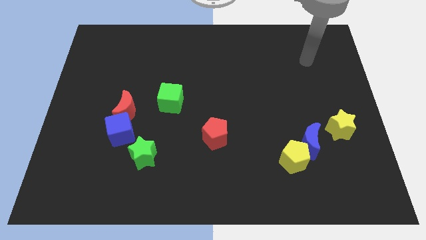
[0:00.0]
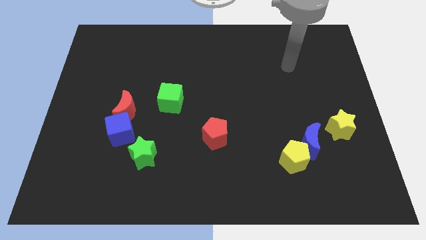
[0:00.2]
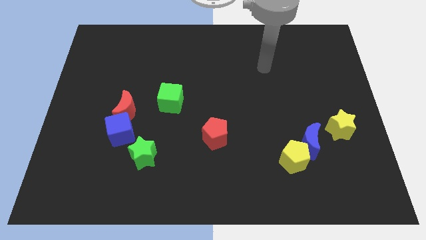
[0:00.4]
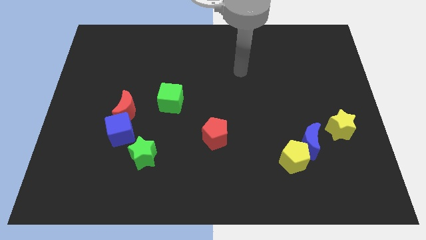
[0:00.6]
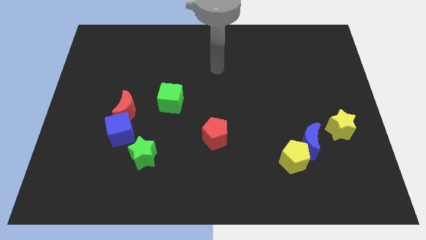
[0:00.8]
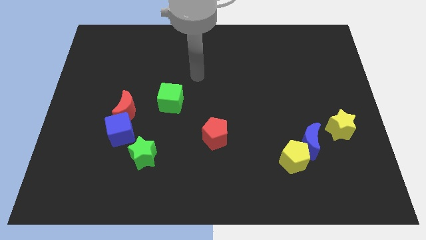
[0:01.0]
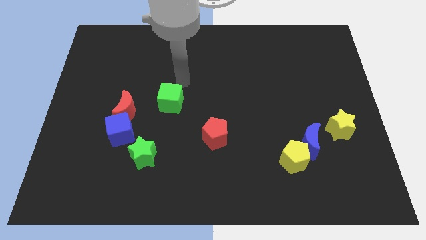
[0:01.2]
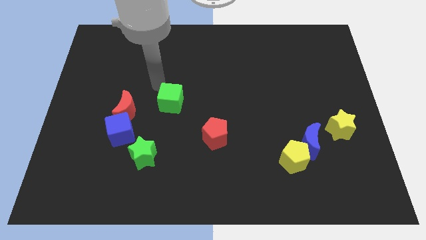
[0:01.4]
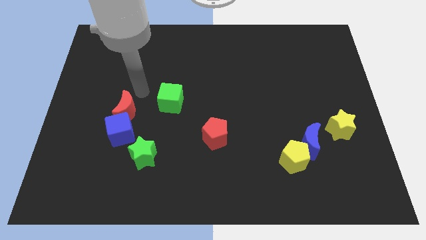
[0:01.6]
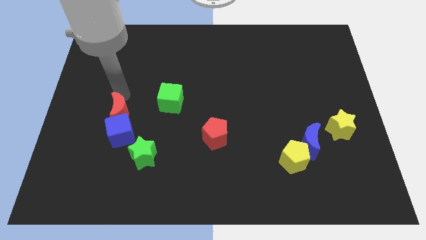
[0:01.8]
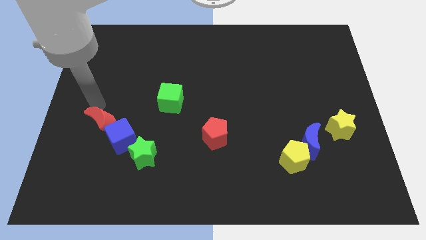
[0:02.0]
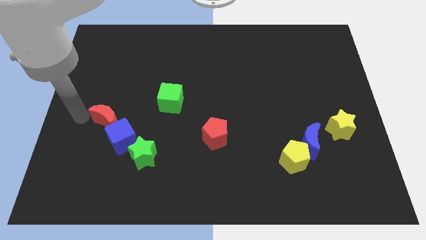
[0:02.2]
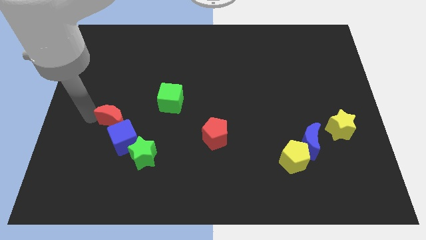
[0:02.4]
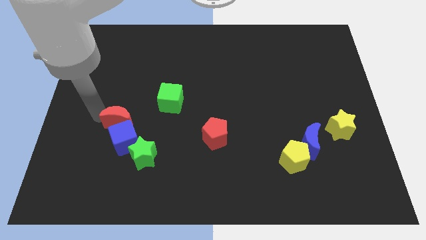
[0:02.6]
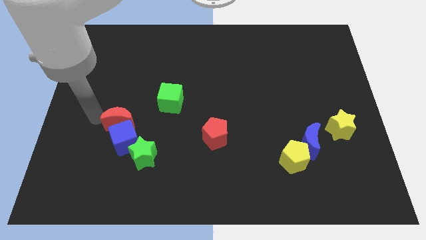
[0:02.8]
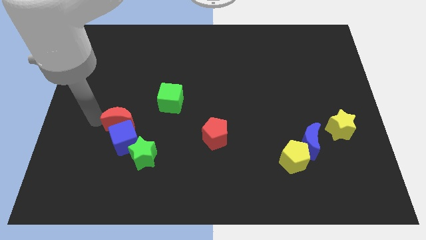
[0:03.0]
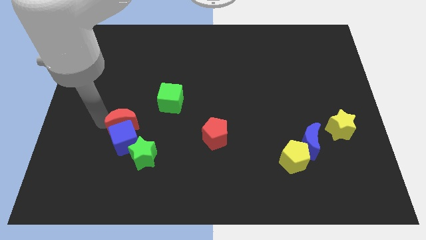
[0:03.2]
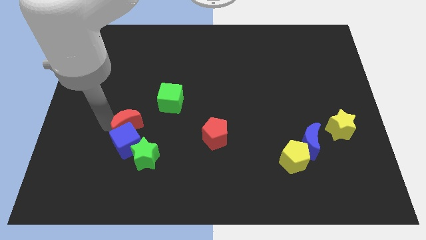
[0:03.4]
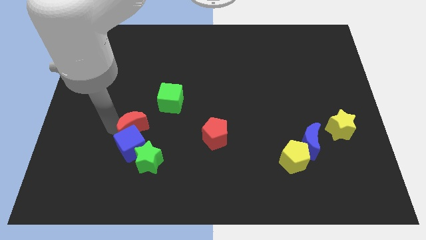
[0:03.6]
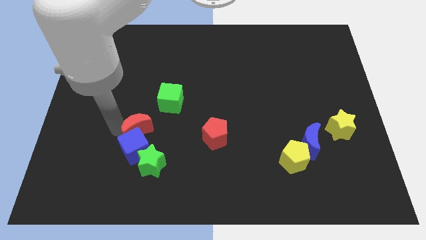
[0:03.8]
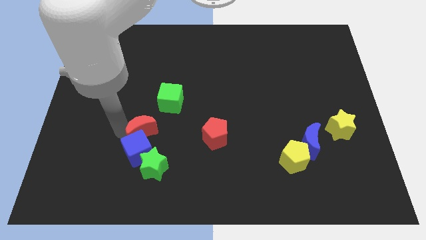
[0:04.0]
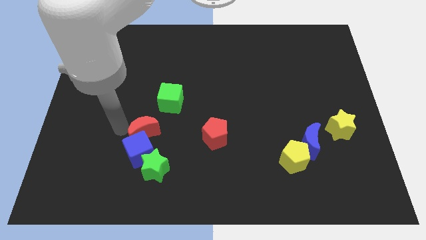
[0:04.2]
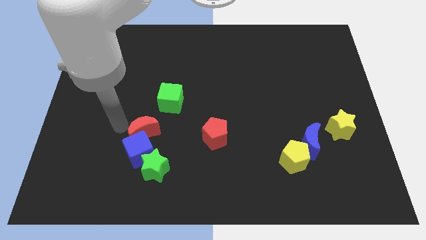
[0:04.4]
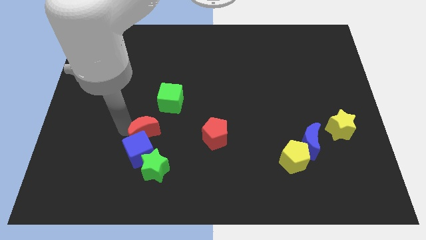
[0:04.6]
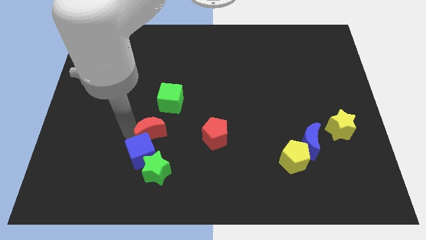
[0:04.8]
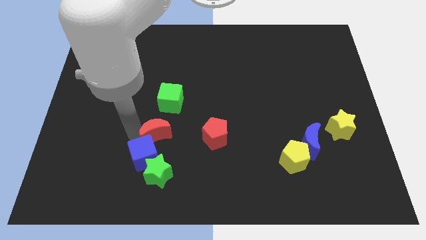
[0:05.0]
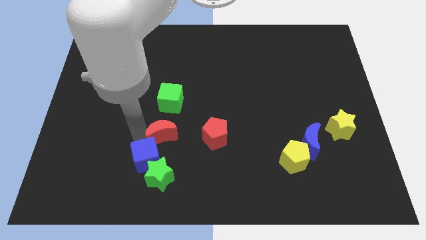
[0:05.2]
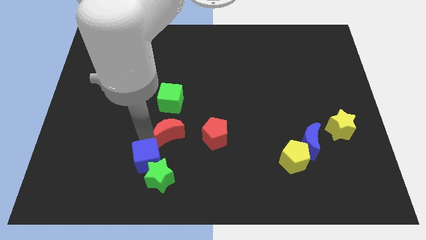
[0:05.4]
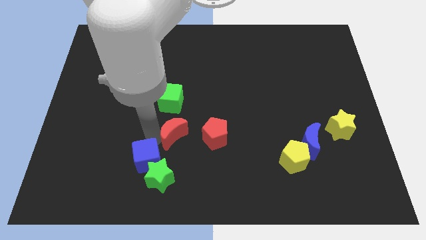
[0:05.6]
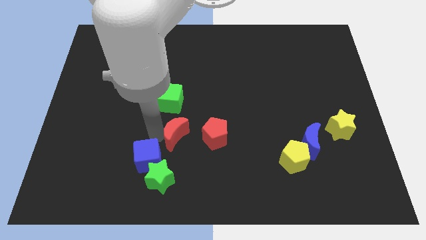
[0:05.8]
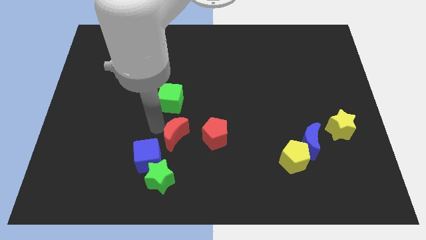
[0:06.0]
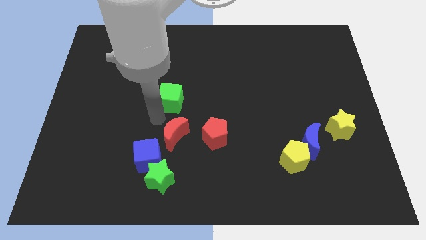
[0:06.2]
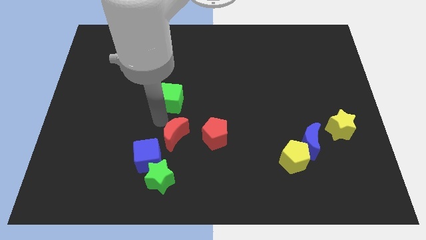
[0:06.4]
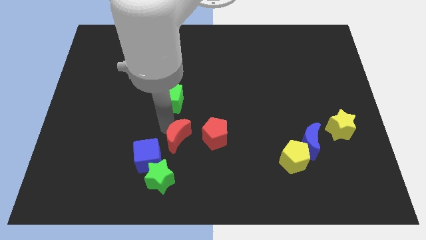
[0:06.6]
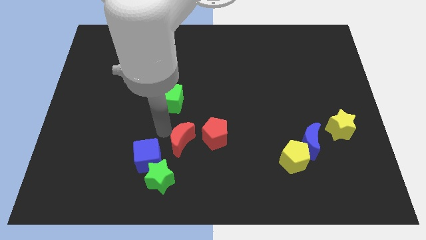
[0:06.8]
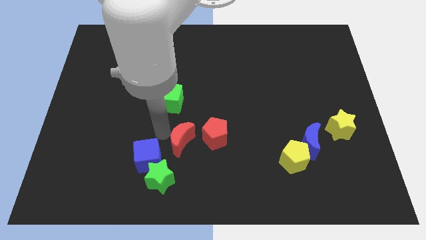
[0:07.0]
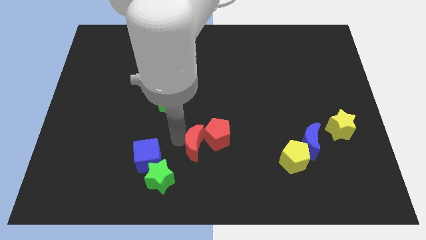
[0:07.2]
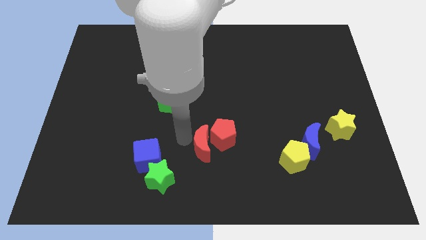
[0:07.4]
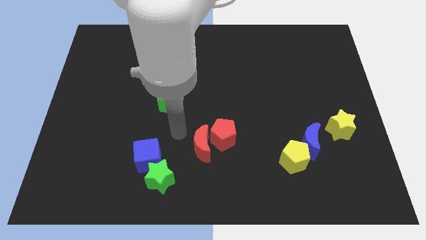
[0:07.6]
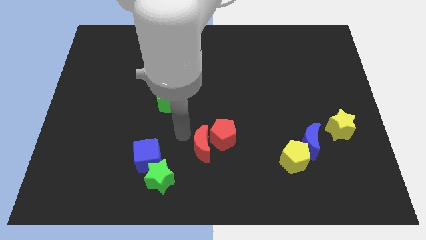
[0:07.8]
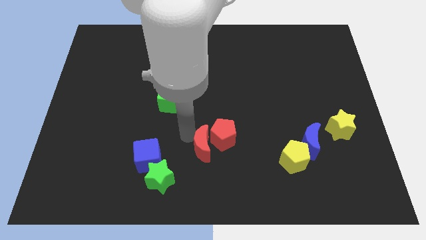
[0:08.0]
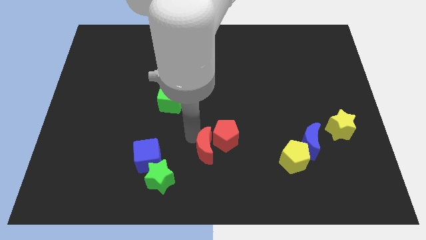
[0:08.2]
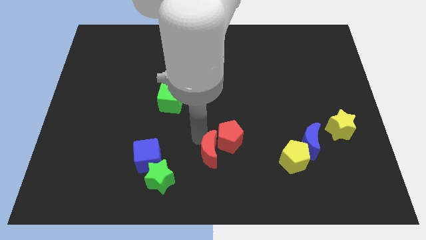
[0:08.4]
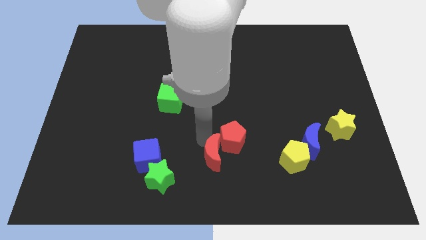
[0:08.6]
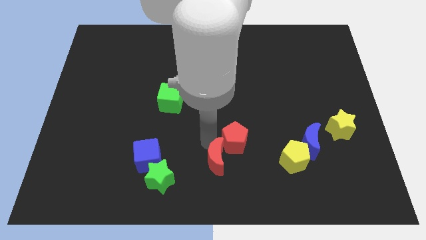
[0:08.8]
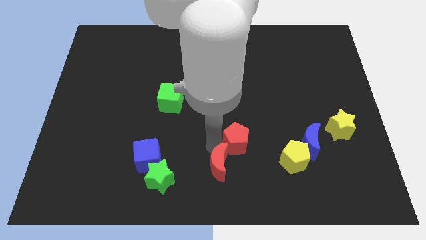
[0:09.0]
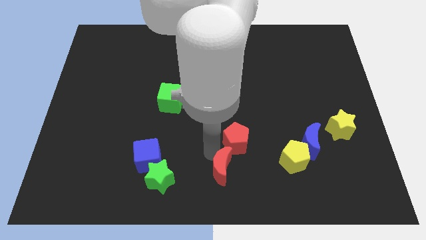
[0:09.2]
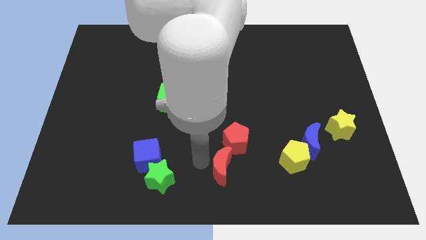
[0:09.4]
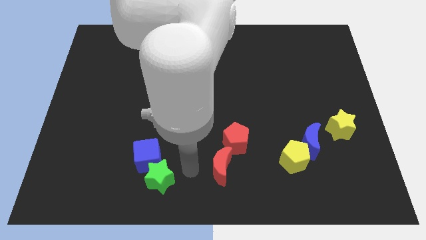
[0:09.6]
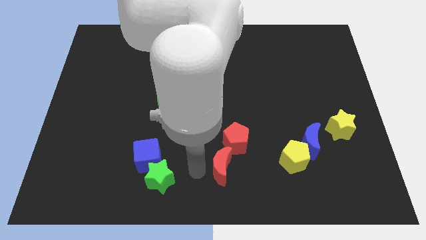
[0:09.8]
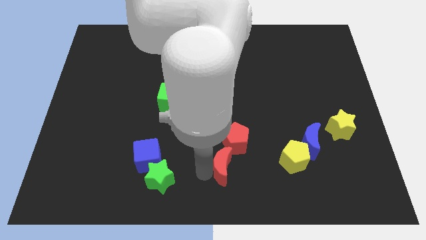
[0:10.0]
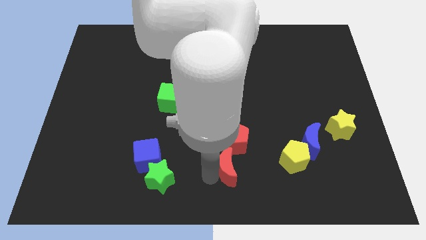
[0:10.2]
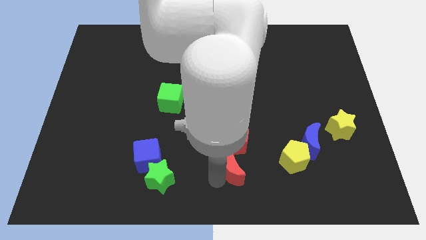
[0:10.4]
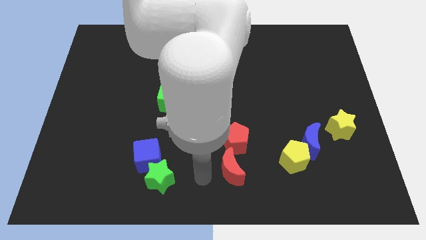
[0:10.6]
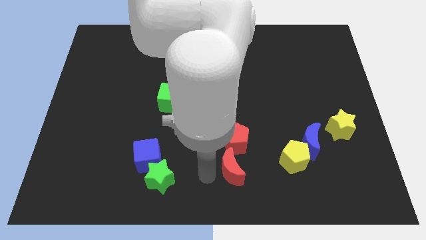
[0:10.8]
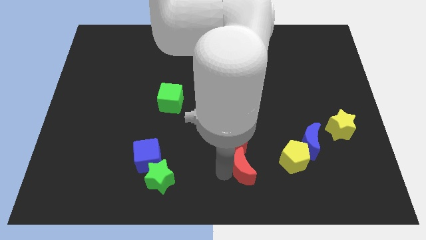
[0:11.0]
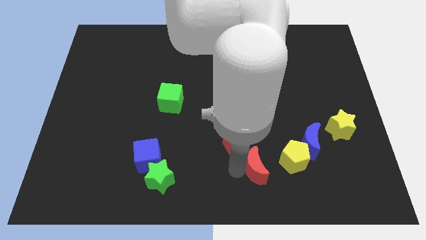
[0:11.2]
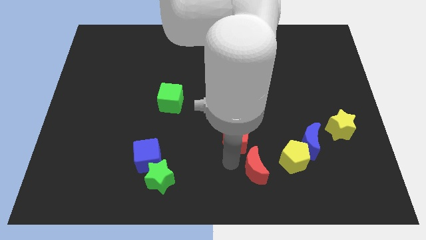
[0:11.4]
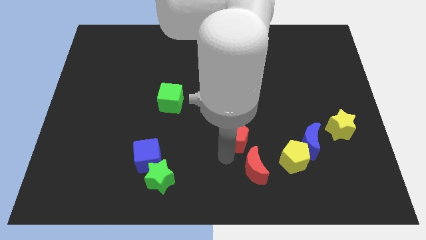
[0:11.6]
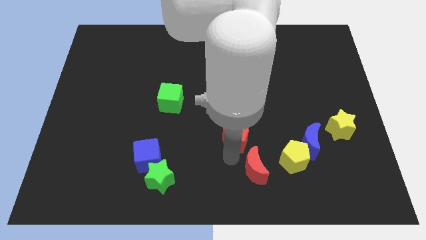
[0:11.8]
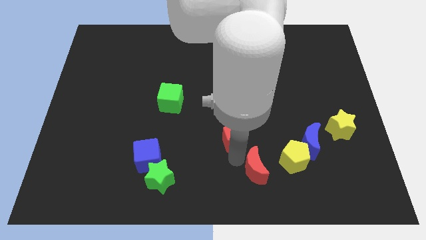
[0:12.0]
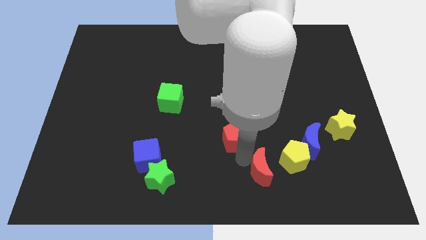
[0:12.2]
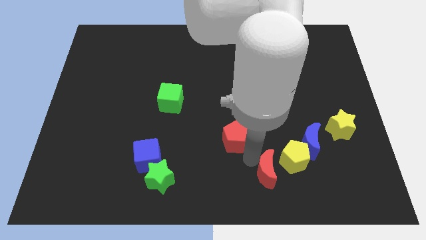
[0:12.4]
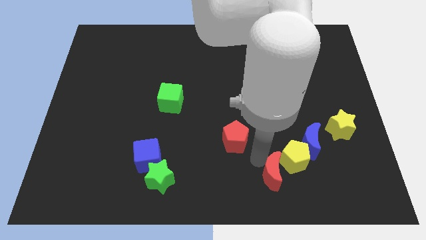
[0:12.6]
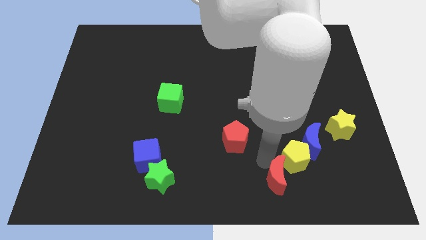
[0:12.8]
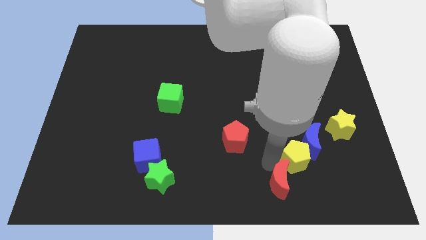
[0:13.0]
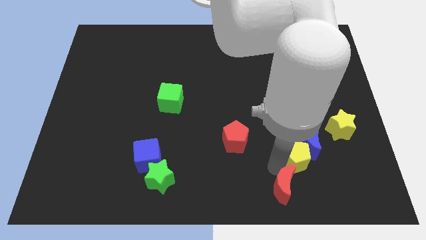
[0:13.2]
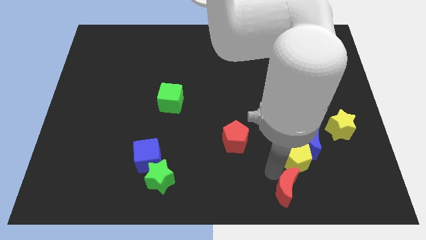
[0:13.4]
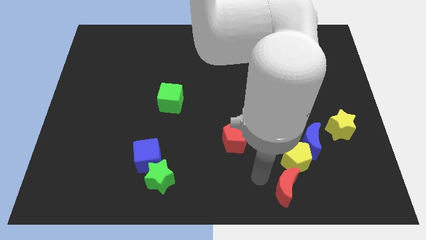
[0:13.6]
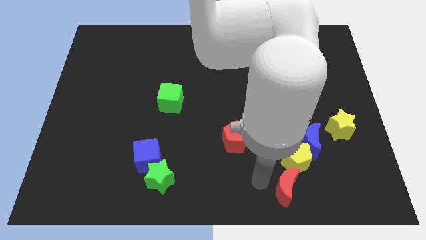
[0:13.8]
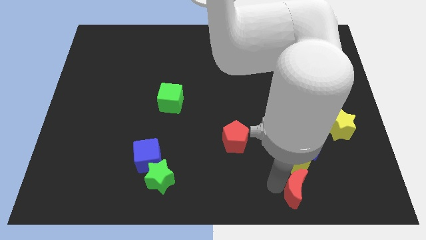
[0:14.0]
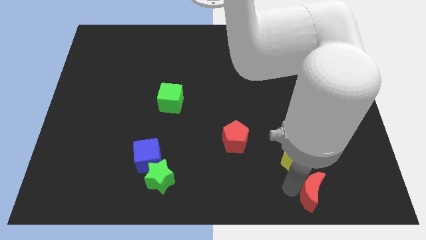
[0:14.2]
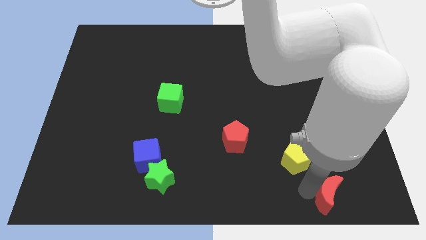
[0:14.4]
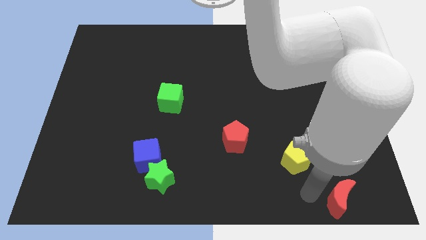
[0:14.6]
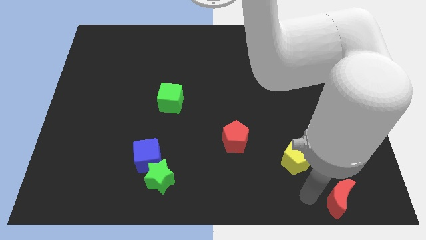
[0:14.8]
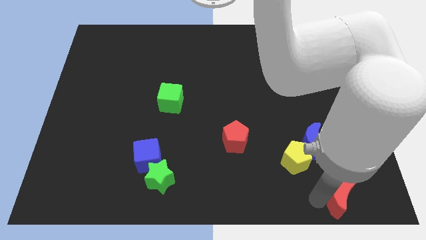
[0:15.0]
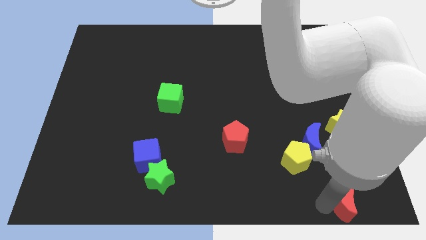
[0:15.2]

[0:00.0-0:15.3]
move the red moon to the bottom right of the board
